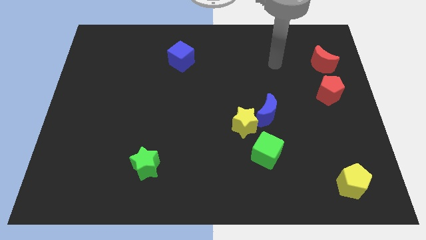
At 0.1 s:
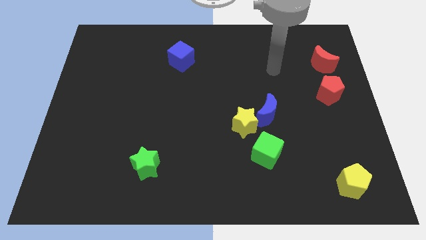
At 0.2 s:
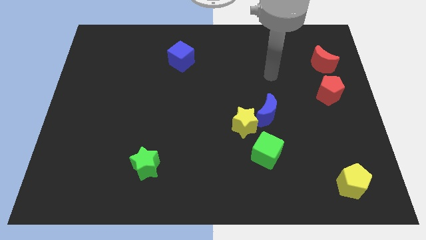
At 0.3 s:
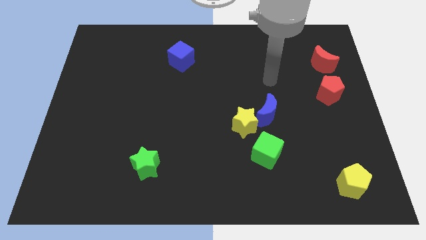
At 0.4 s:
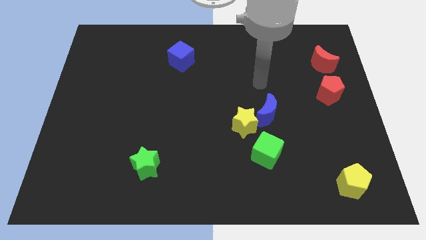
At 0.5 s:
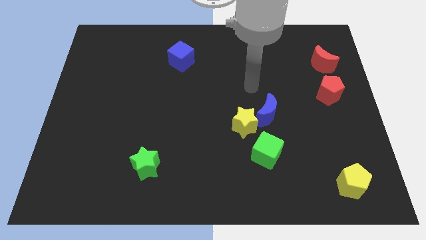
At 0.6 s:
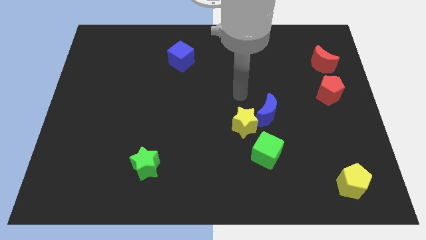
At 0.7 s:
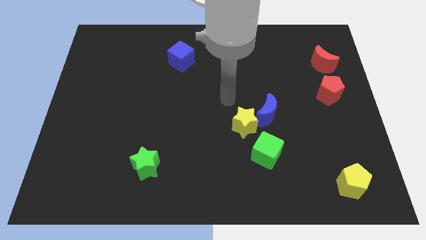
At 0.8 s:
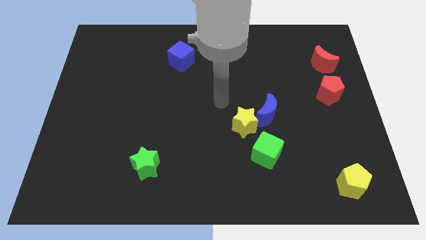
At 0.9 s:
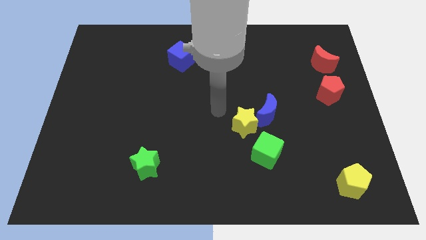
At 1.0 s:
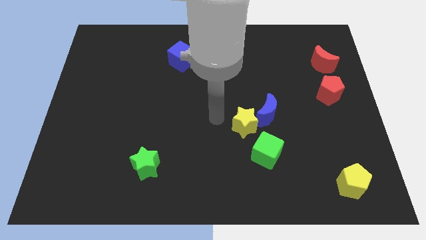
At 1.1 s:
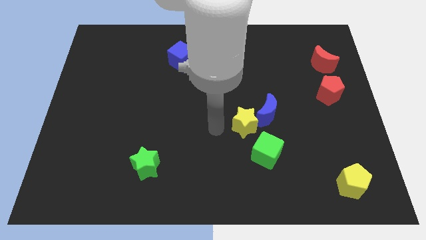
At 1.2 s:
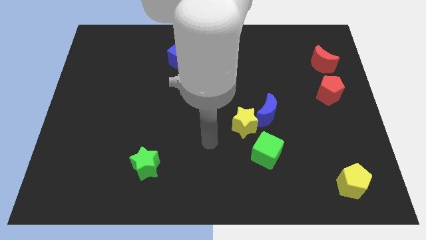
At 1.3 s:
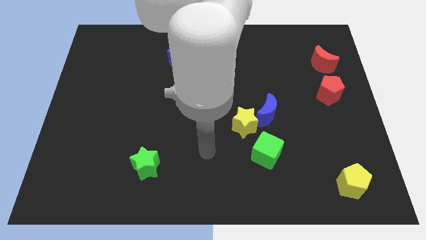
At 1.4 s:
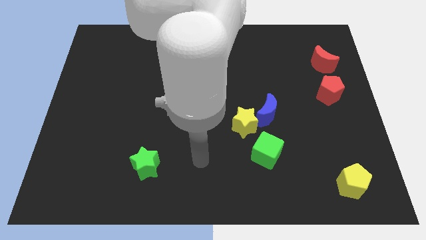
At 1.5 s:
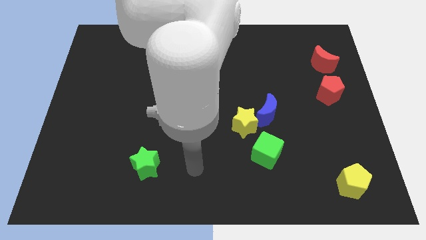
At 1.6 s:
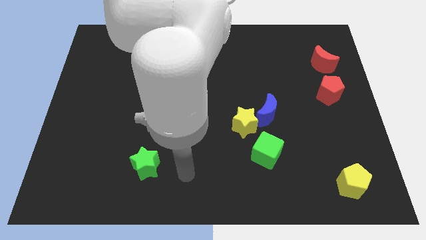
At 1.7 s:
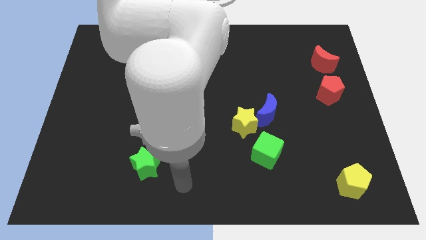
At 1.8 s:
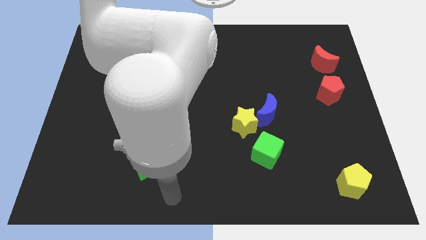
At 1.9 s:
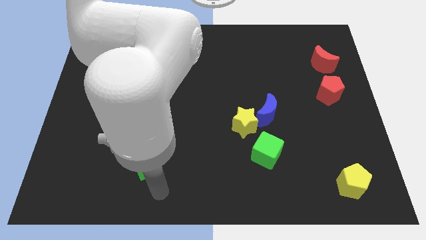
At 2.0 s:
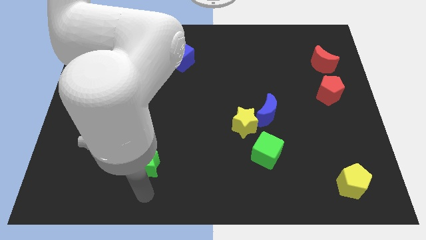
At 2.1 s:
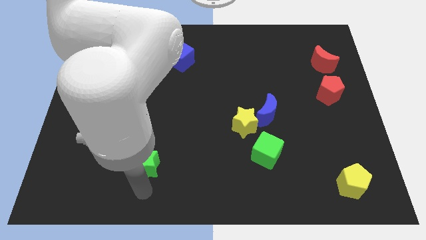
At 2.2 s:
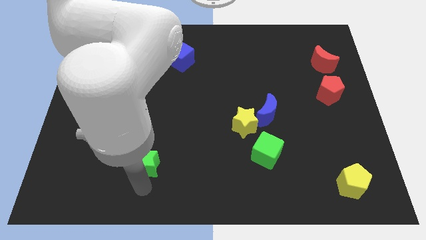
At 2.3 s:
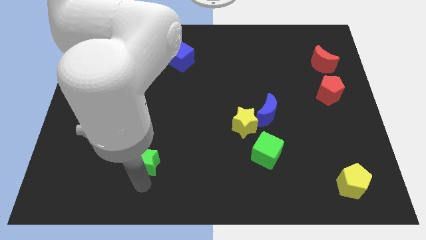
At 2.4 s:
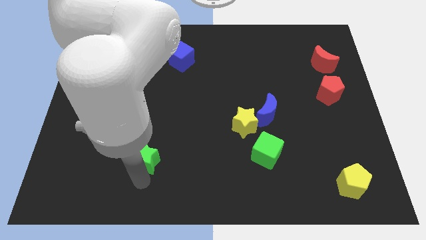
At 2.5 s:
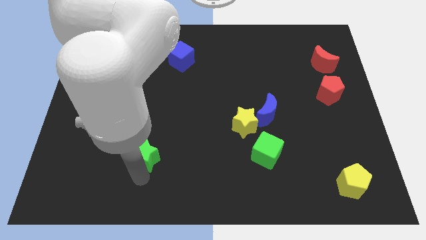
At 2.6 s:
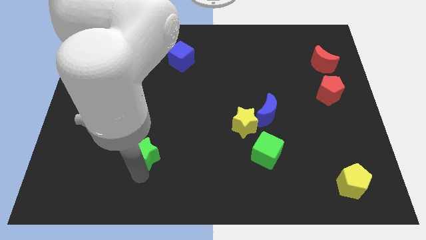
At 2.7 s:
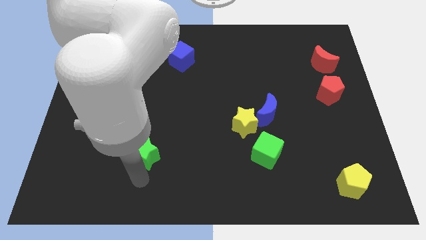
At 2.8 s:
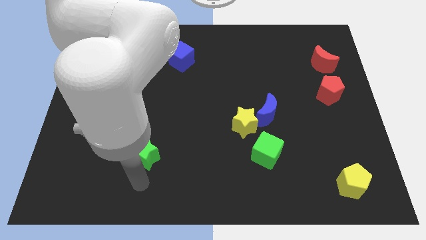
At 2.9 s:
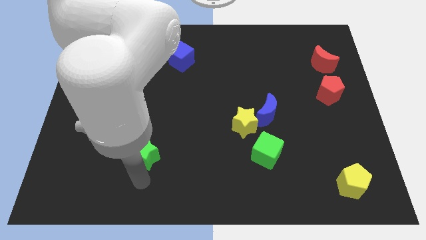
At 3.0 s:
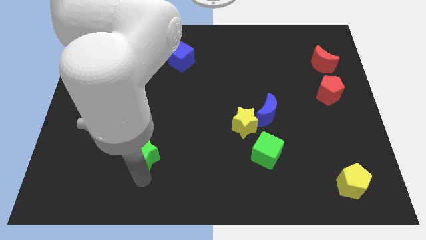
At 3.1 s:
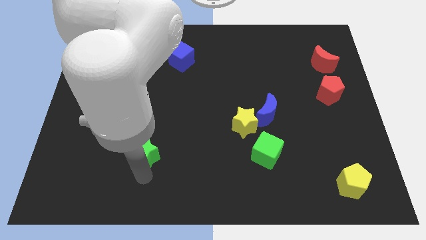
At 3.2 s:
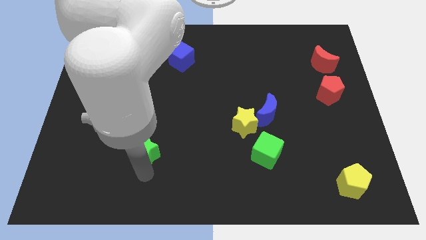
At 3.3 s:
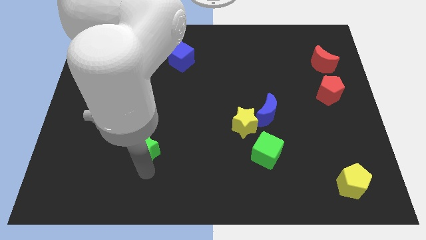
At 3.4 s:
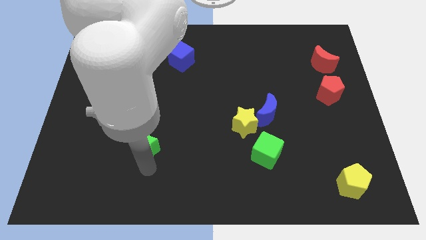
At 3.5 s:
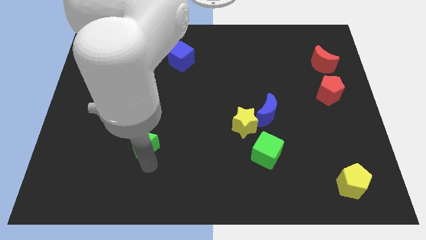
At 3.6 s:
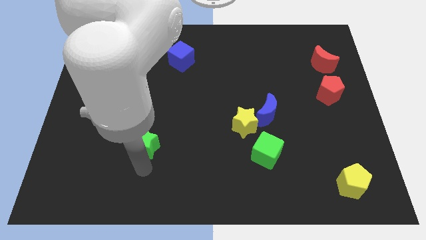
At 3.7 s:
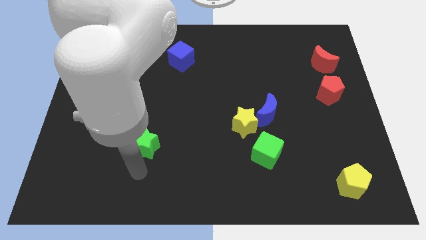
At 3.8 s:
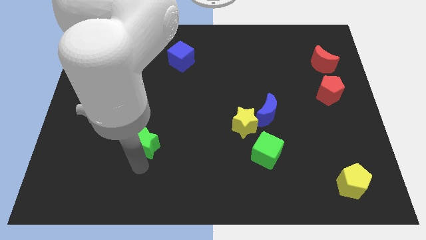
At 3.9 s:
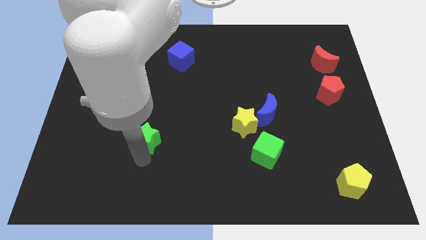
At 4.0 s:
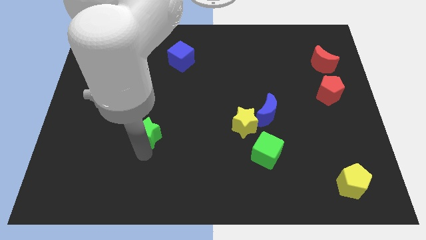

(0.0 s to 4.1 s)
slightly move the green star upwards

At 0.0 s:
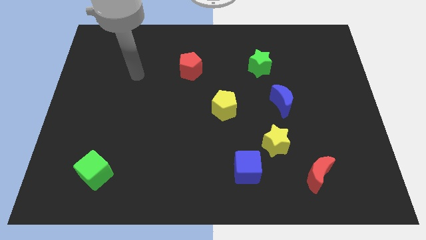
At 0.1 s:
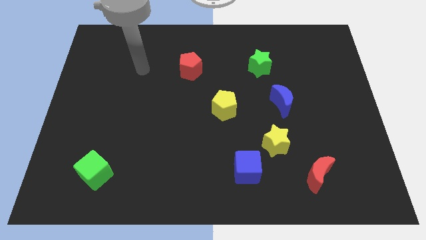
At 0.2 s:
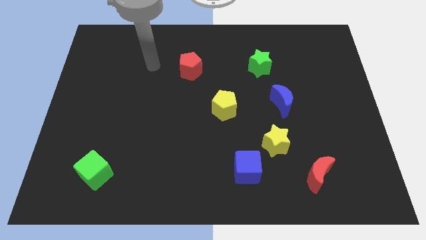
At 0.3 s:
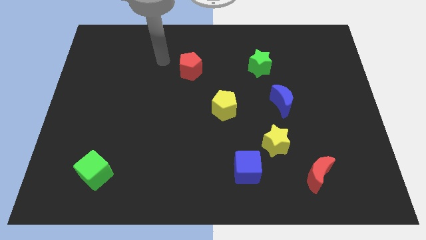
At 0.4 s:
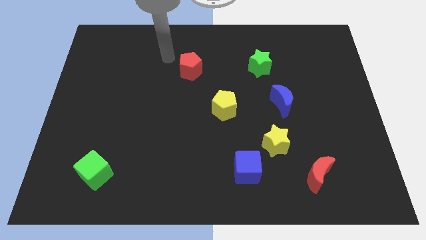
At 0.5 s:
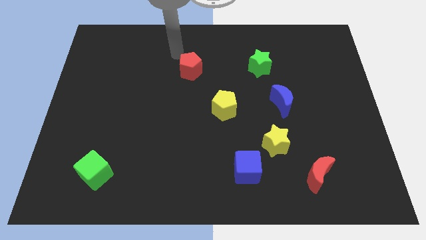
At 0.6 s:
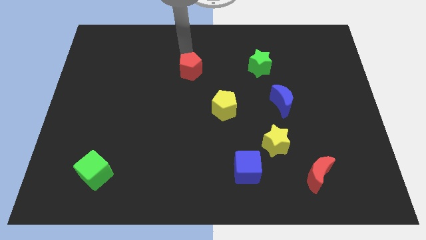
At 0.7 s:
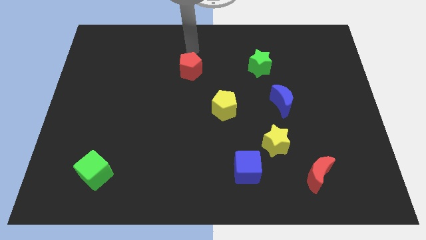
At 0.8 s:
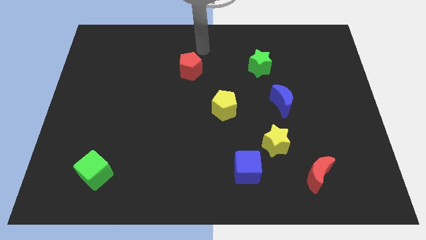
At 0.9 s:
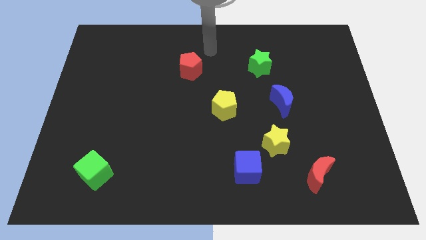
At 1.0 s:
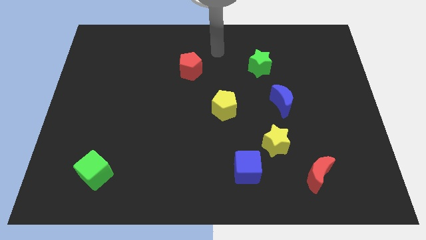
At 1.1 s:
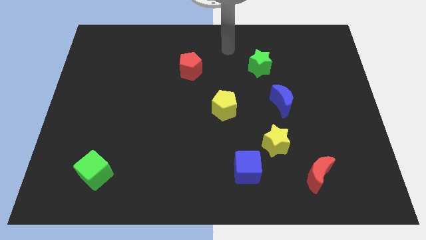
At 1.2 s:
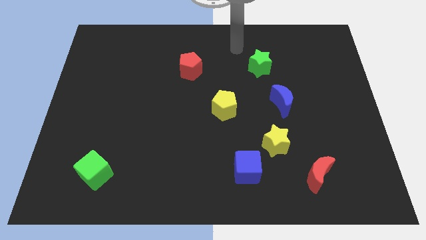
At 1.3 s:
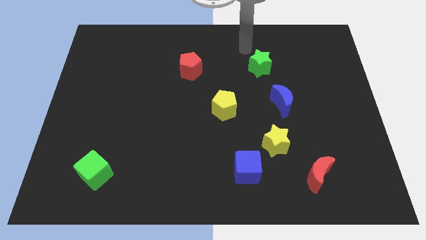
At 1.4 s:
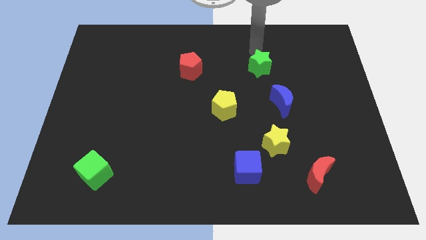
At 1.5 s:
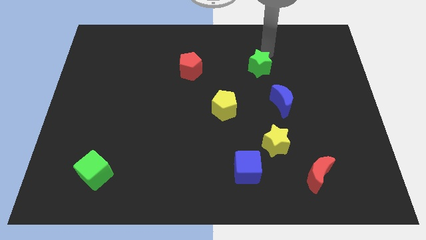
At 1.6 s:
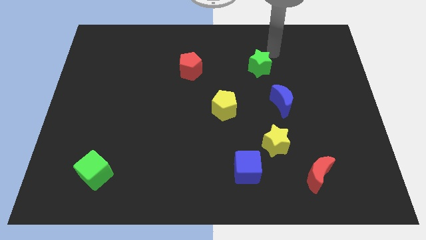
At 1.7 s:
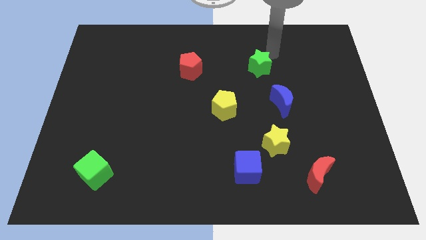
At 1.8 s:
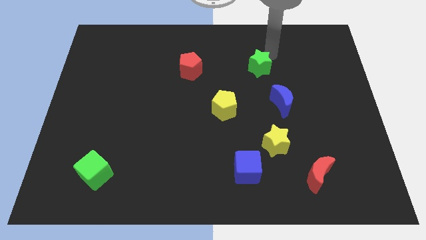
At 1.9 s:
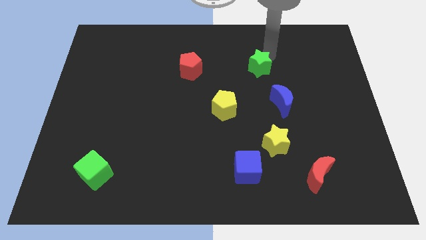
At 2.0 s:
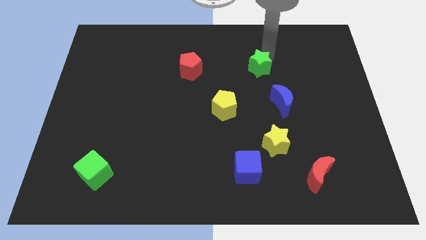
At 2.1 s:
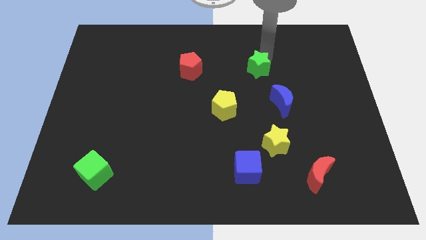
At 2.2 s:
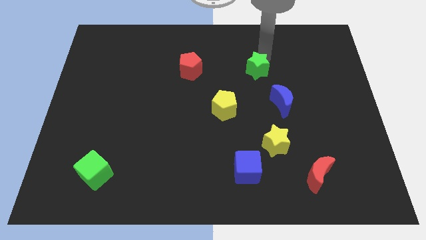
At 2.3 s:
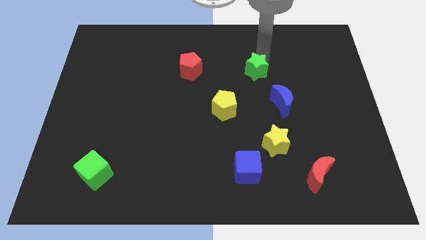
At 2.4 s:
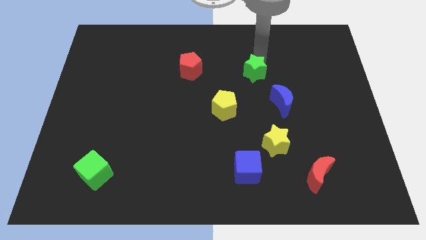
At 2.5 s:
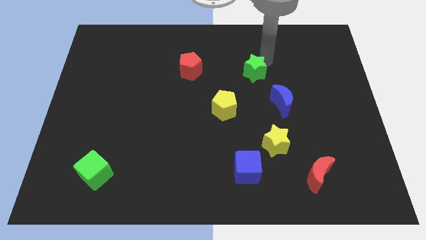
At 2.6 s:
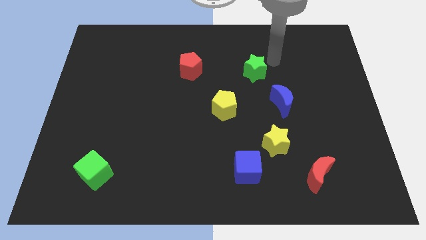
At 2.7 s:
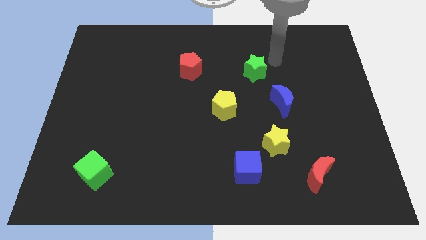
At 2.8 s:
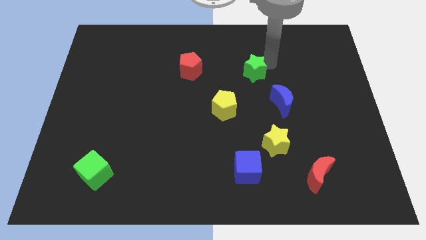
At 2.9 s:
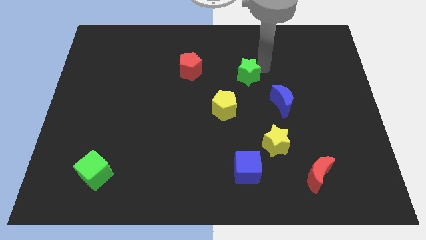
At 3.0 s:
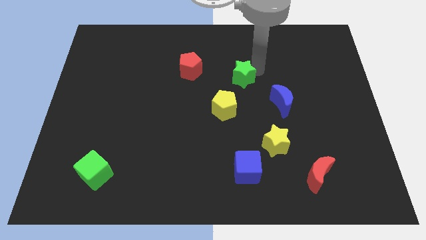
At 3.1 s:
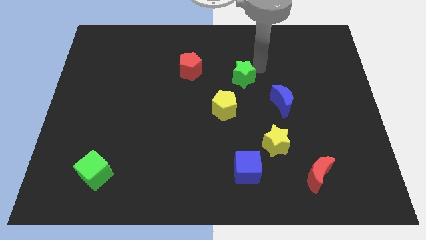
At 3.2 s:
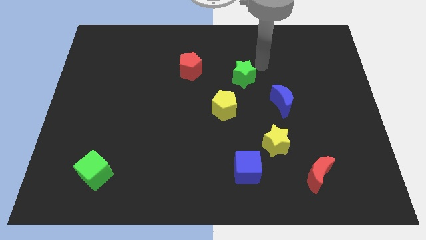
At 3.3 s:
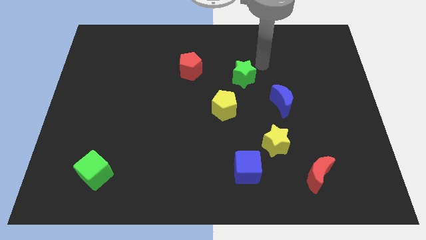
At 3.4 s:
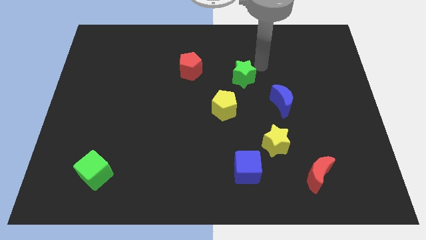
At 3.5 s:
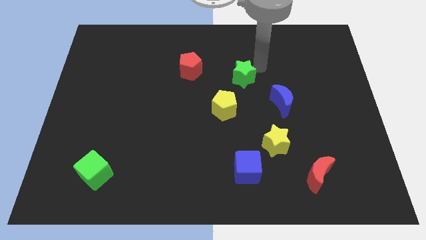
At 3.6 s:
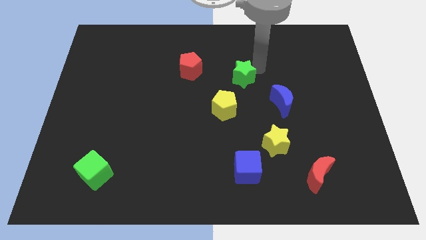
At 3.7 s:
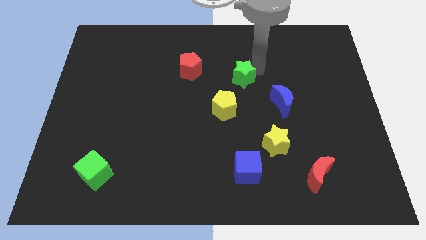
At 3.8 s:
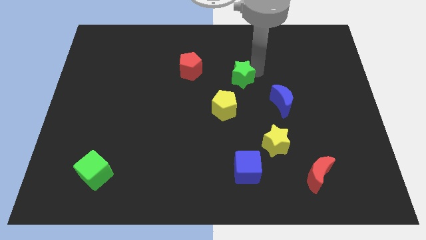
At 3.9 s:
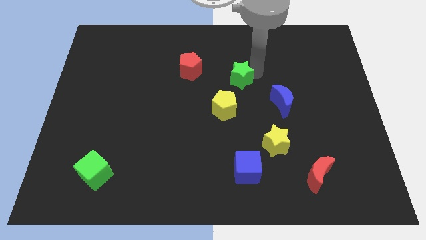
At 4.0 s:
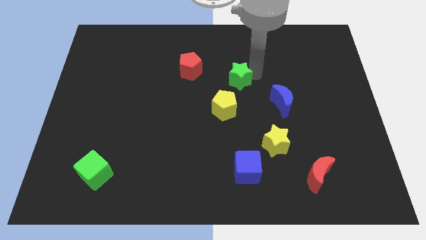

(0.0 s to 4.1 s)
slightly move the green star down and to the left
